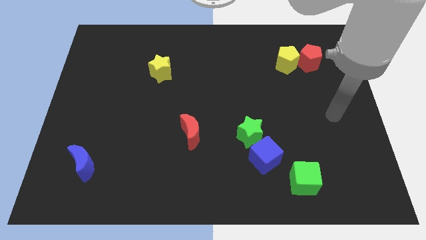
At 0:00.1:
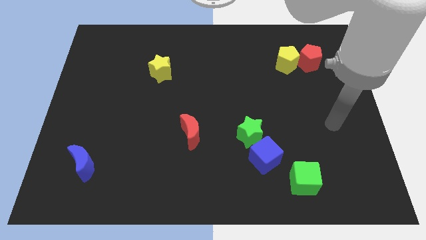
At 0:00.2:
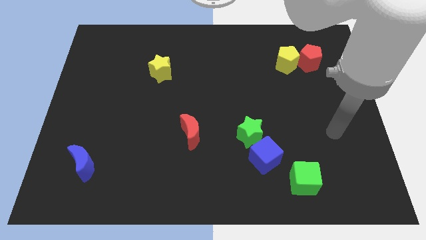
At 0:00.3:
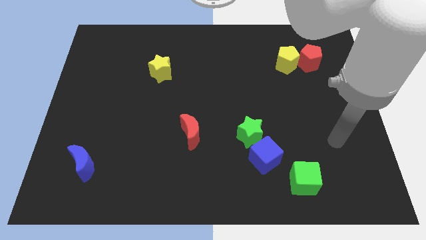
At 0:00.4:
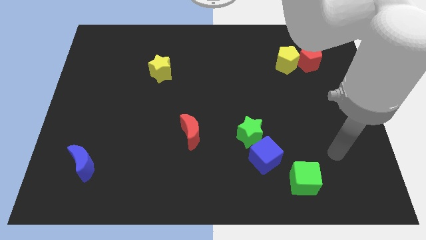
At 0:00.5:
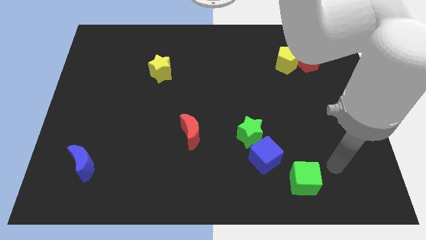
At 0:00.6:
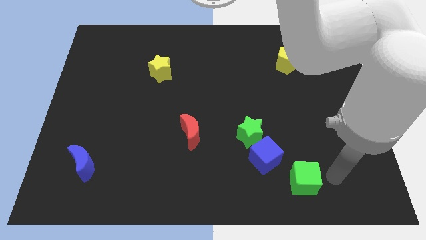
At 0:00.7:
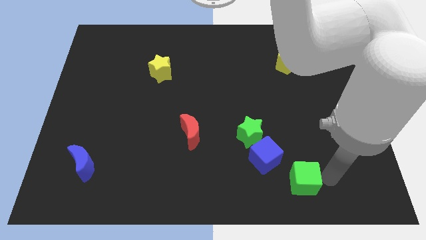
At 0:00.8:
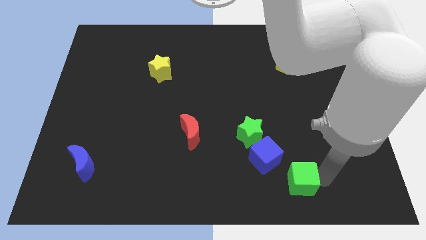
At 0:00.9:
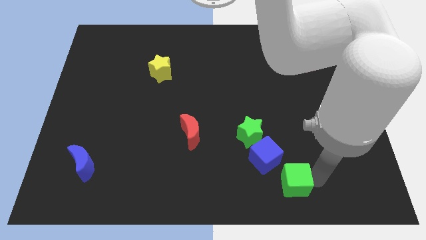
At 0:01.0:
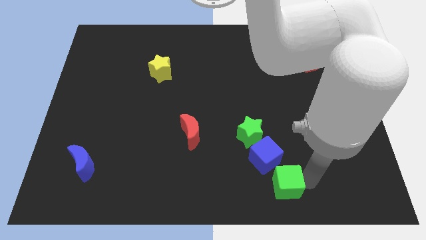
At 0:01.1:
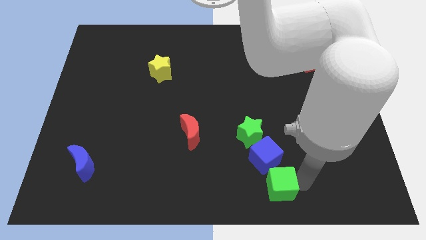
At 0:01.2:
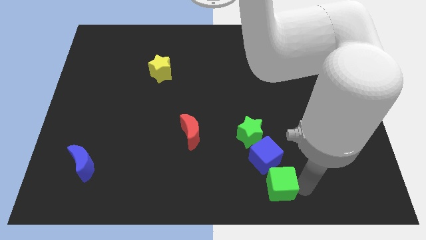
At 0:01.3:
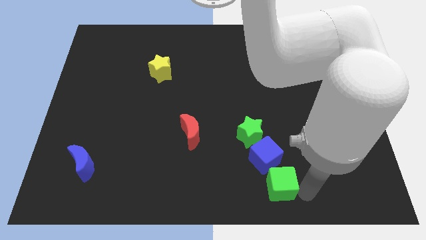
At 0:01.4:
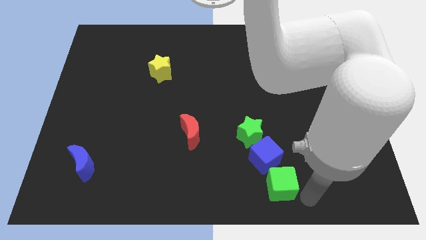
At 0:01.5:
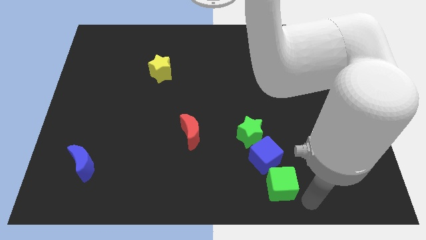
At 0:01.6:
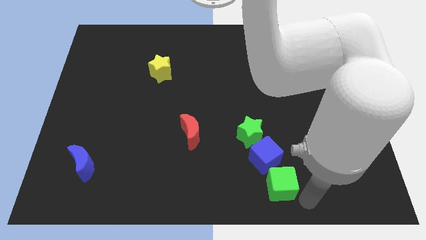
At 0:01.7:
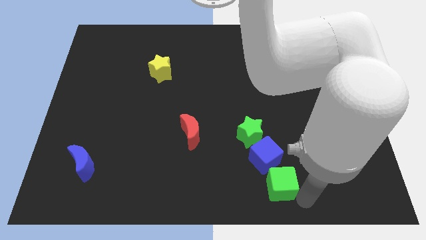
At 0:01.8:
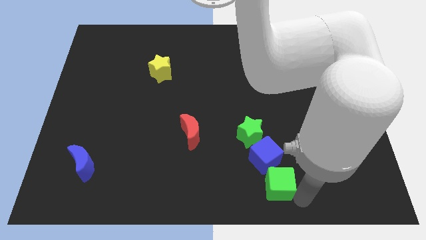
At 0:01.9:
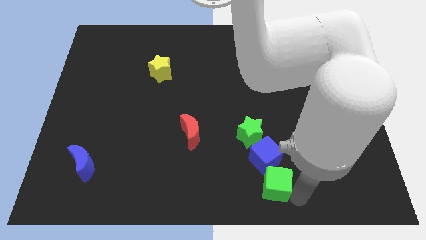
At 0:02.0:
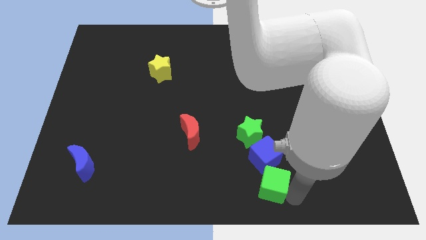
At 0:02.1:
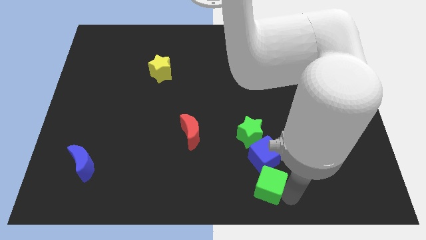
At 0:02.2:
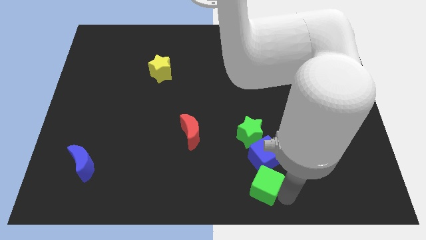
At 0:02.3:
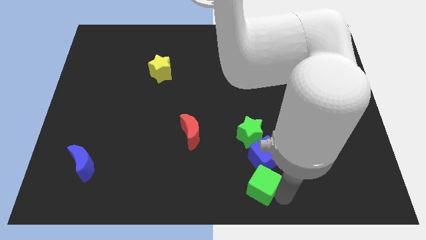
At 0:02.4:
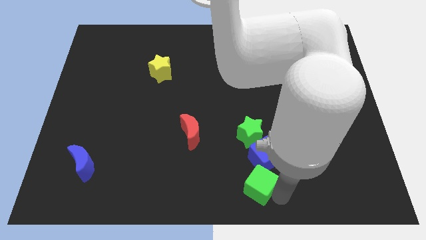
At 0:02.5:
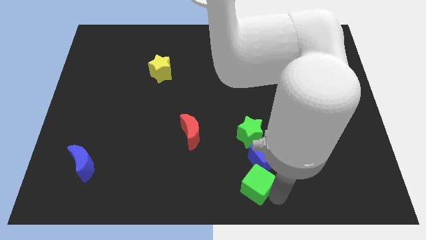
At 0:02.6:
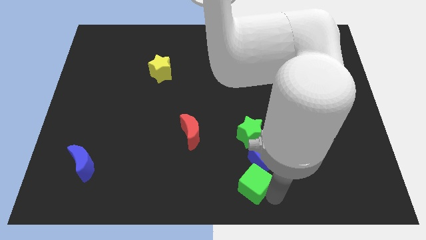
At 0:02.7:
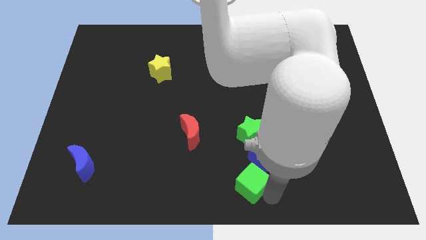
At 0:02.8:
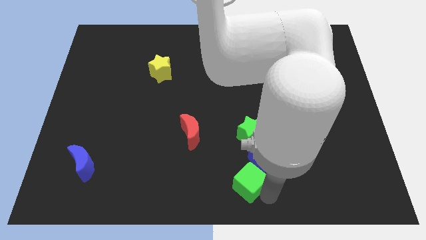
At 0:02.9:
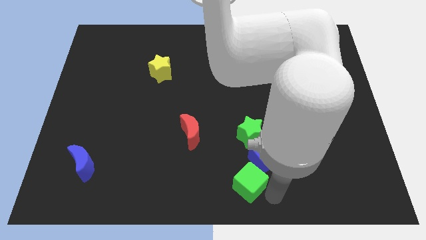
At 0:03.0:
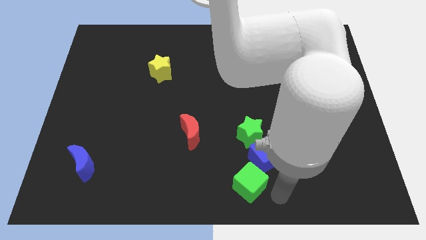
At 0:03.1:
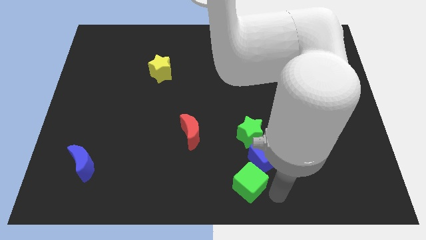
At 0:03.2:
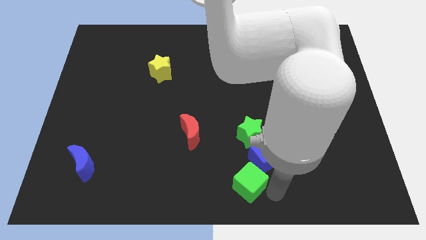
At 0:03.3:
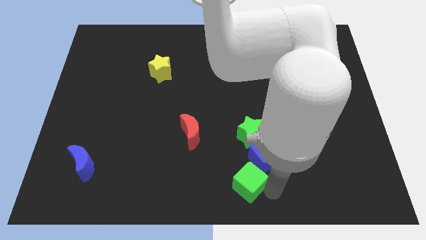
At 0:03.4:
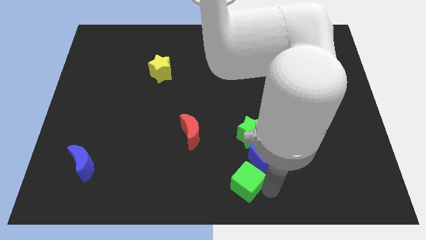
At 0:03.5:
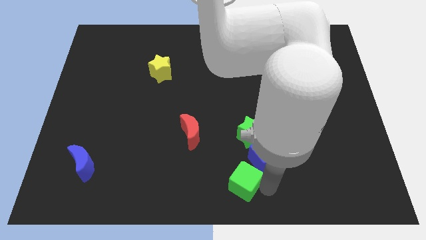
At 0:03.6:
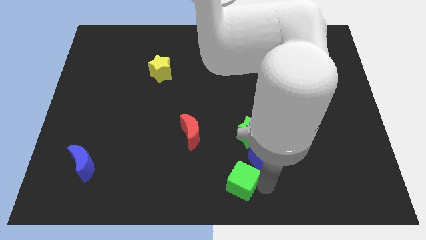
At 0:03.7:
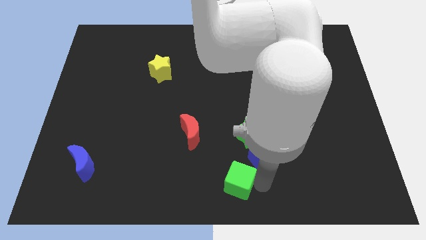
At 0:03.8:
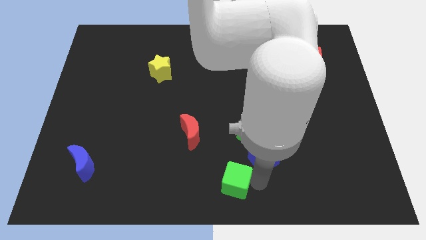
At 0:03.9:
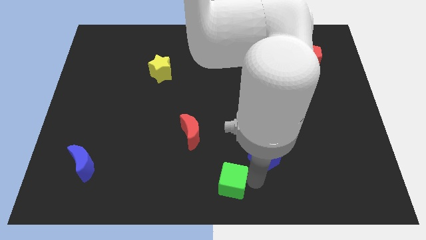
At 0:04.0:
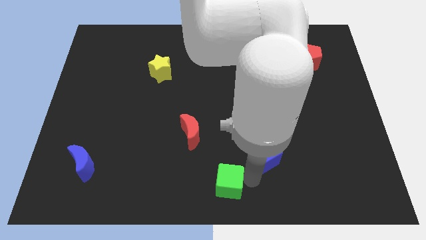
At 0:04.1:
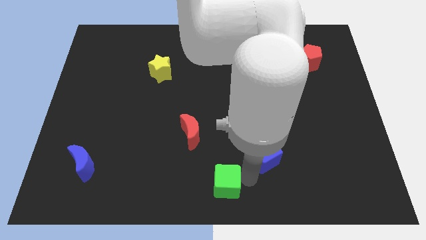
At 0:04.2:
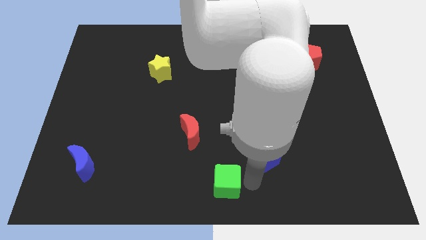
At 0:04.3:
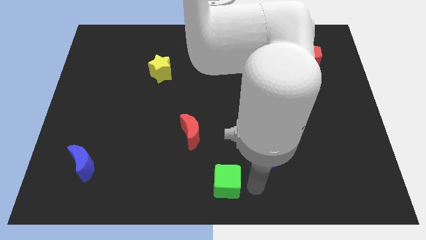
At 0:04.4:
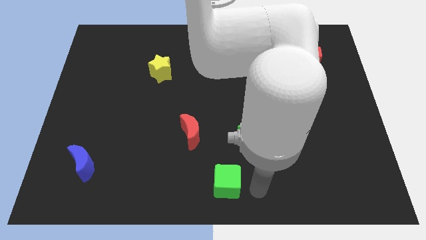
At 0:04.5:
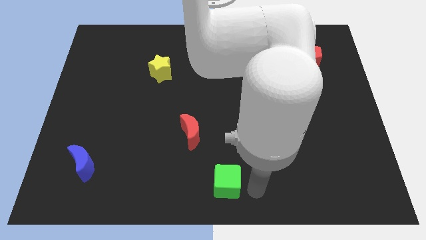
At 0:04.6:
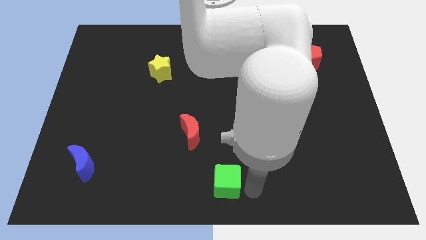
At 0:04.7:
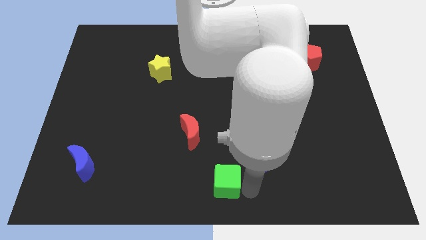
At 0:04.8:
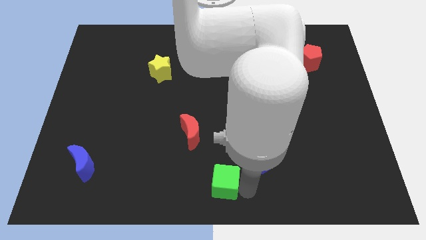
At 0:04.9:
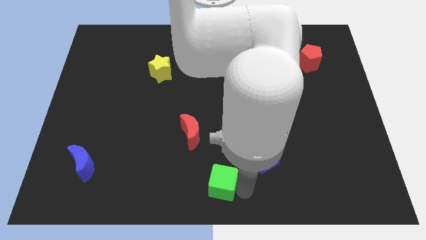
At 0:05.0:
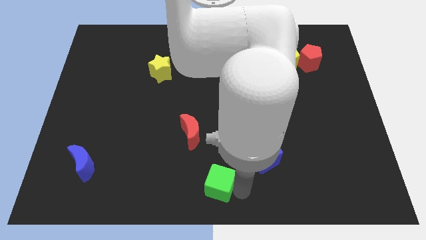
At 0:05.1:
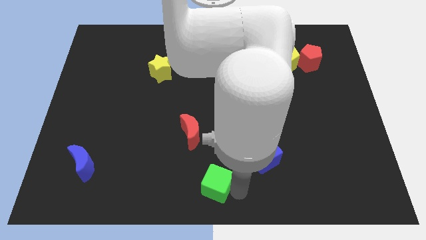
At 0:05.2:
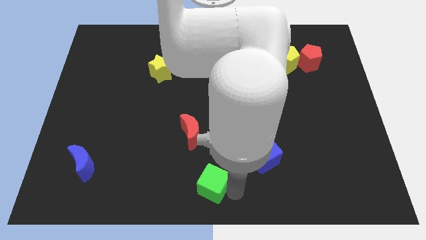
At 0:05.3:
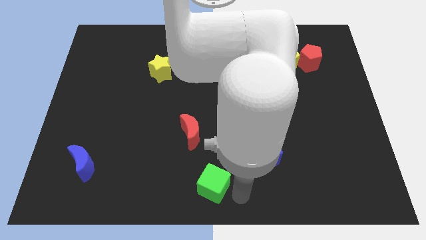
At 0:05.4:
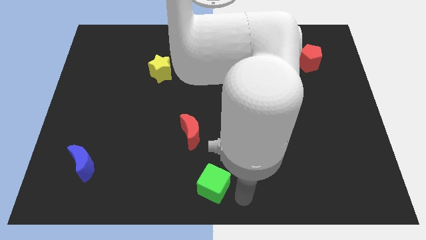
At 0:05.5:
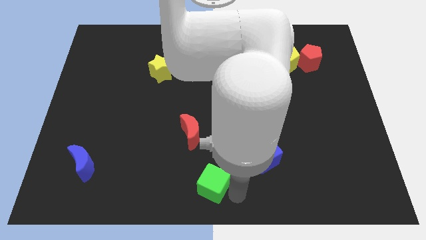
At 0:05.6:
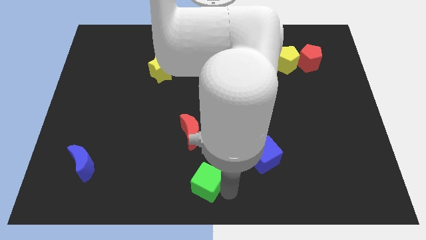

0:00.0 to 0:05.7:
push the green cube left

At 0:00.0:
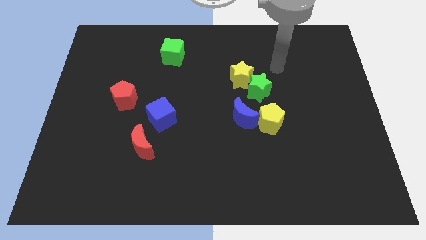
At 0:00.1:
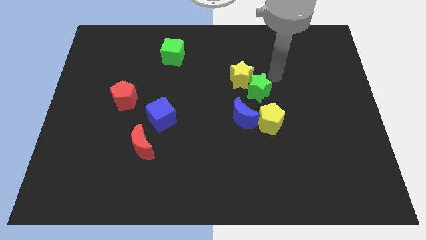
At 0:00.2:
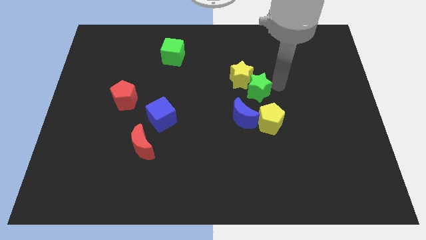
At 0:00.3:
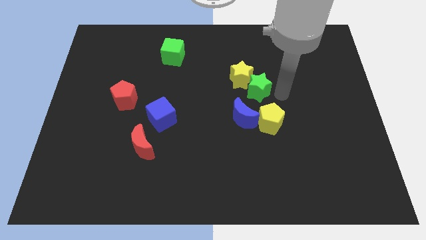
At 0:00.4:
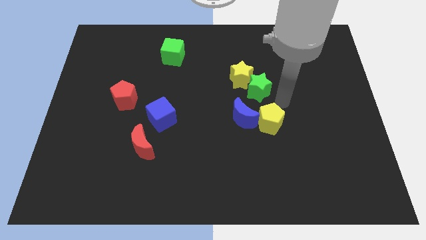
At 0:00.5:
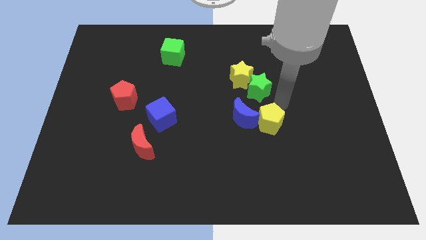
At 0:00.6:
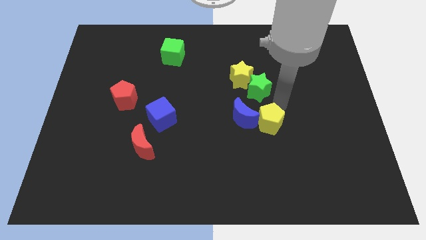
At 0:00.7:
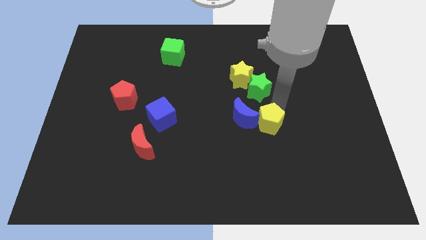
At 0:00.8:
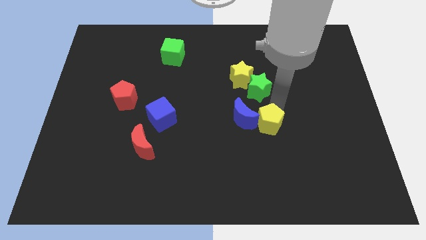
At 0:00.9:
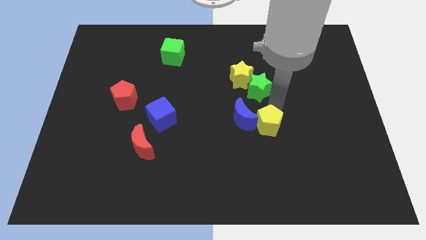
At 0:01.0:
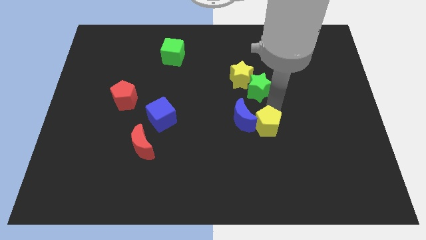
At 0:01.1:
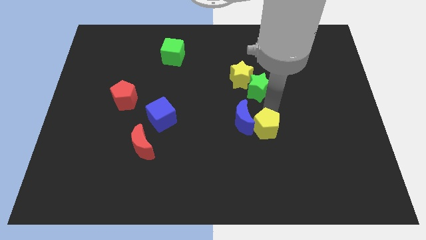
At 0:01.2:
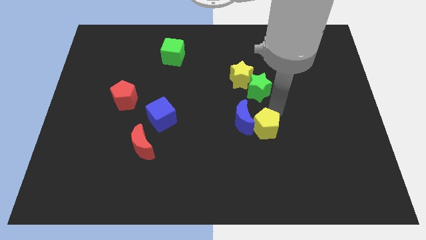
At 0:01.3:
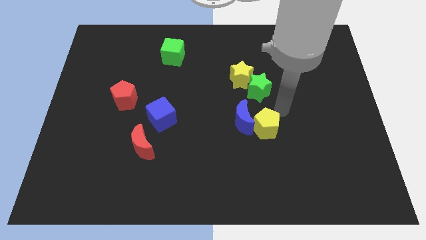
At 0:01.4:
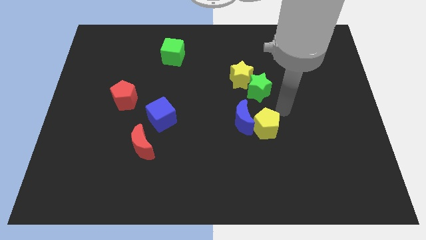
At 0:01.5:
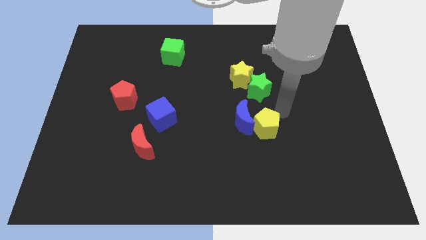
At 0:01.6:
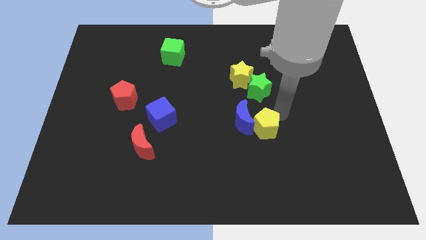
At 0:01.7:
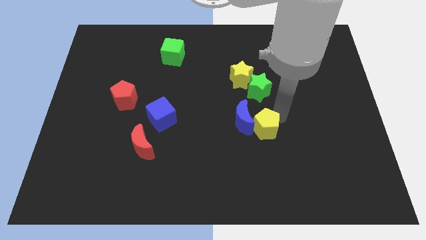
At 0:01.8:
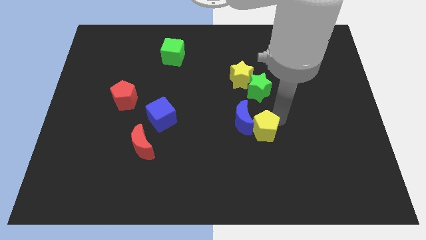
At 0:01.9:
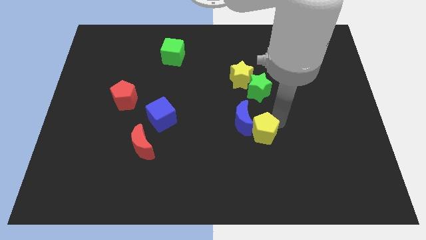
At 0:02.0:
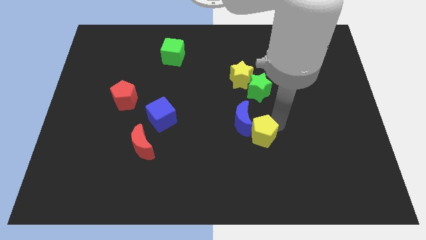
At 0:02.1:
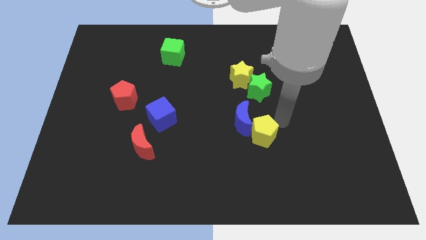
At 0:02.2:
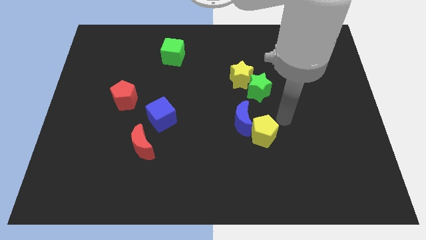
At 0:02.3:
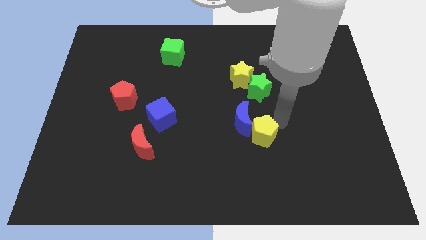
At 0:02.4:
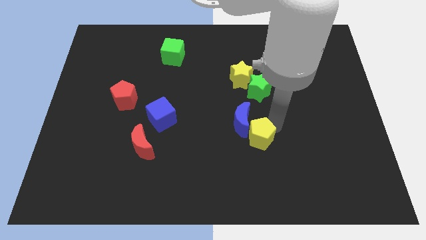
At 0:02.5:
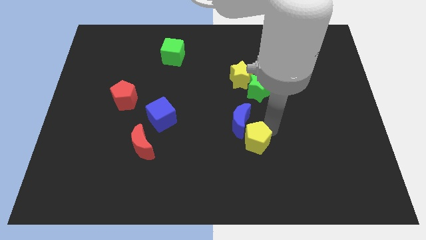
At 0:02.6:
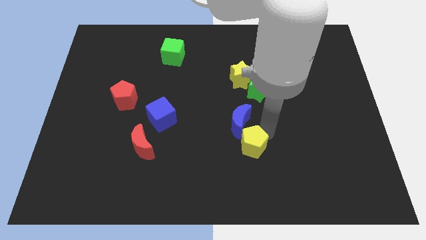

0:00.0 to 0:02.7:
slightly push the yellow pentagon downwards and then to the left
